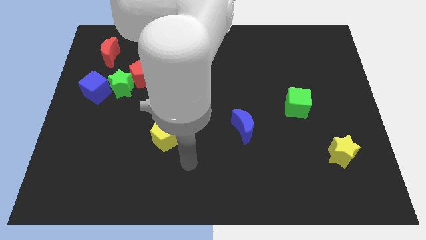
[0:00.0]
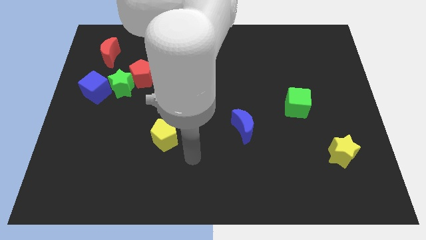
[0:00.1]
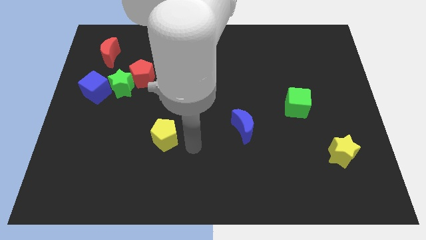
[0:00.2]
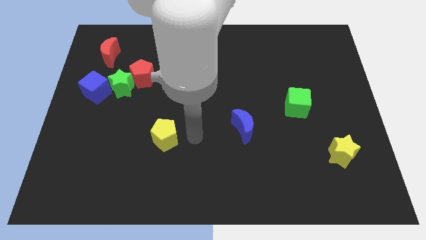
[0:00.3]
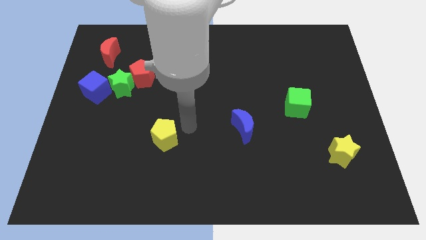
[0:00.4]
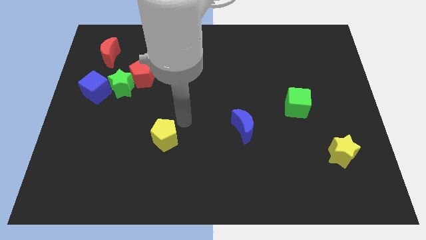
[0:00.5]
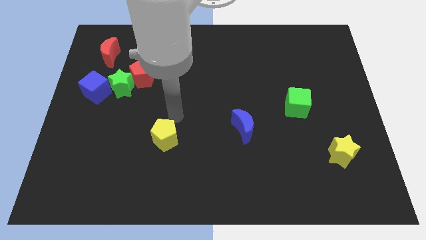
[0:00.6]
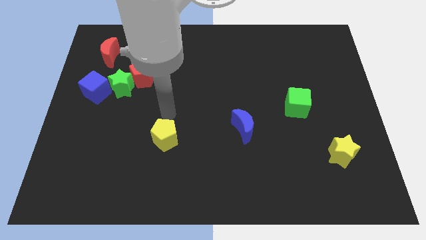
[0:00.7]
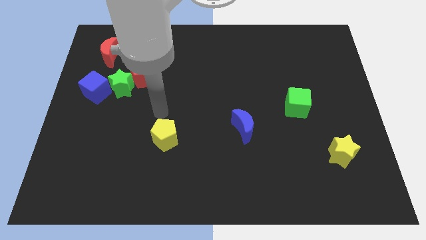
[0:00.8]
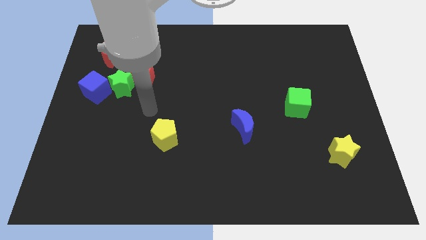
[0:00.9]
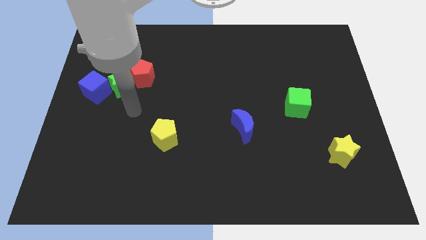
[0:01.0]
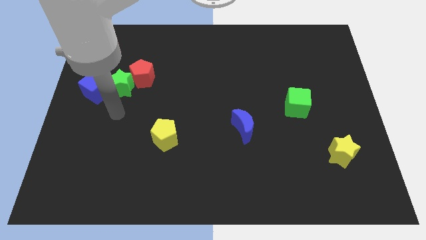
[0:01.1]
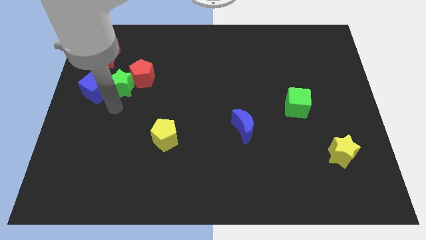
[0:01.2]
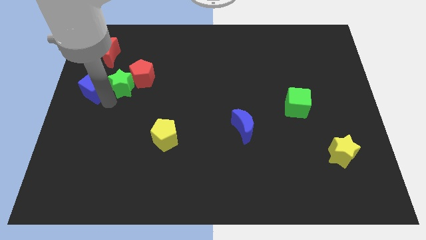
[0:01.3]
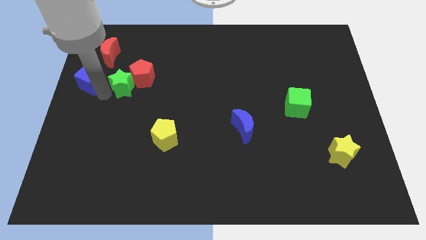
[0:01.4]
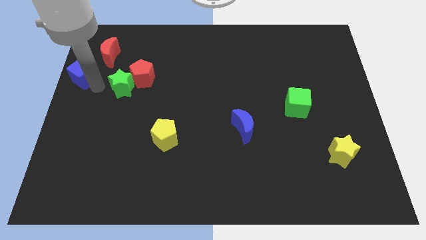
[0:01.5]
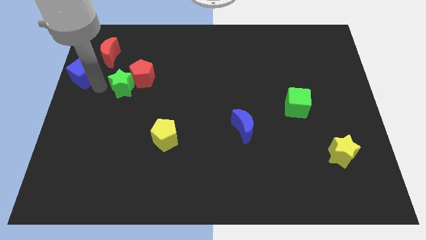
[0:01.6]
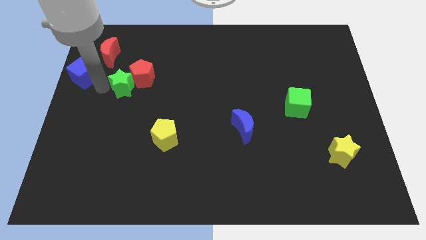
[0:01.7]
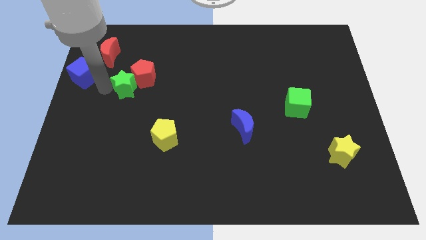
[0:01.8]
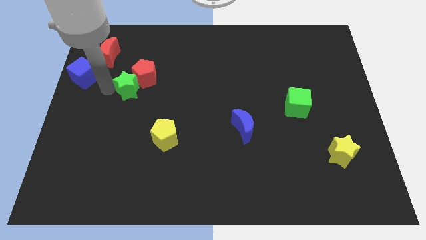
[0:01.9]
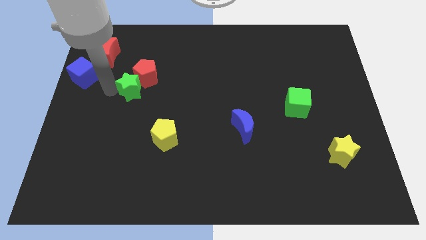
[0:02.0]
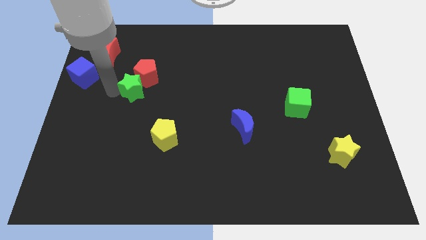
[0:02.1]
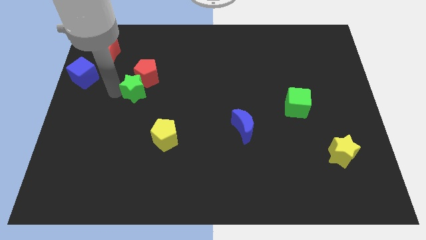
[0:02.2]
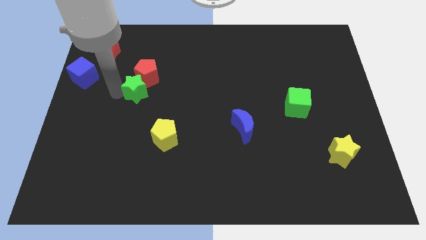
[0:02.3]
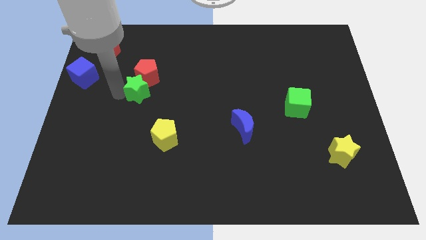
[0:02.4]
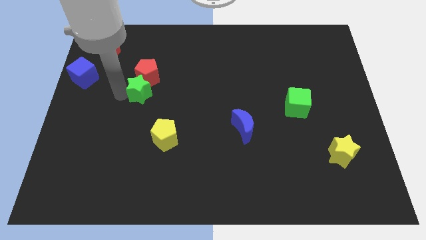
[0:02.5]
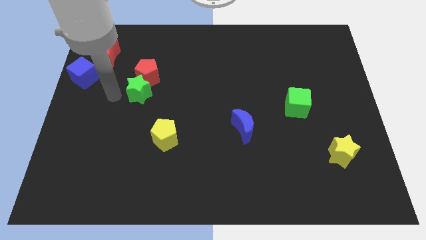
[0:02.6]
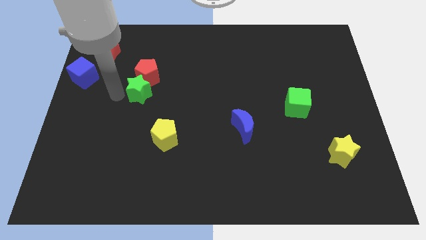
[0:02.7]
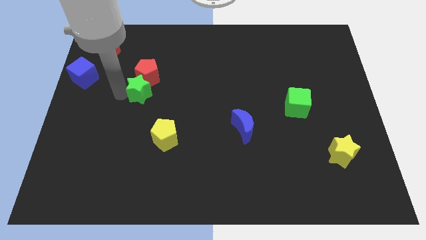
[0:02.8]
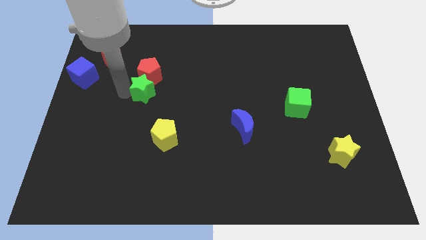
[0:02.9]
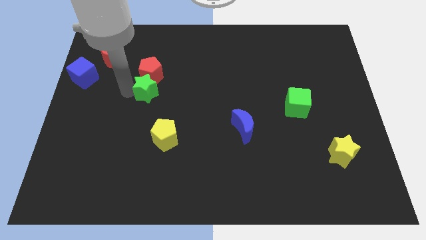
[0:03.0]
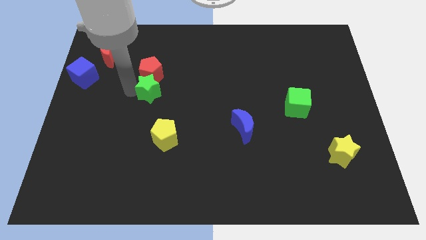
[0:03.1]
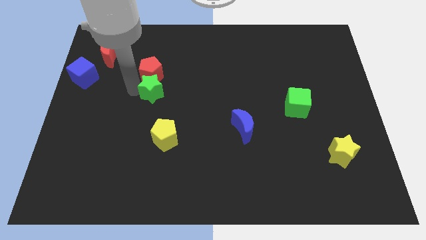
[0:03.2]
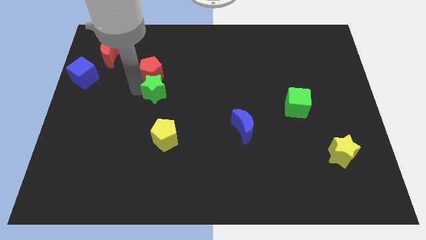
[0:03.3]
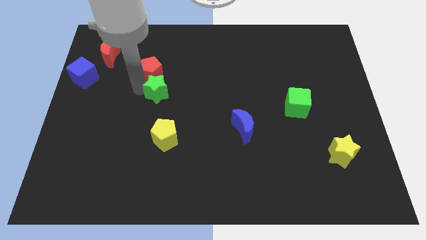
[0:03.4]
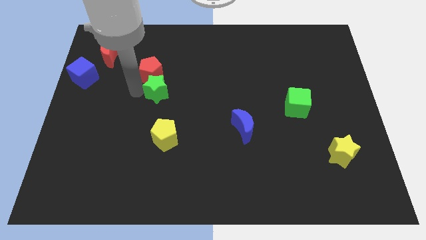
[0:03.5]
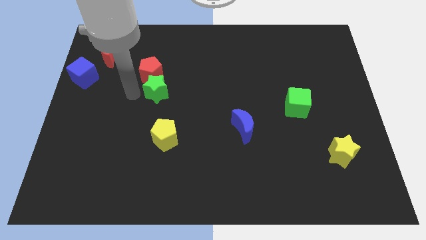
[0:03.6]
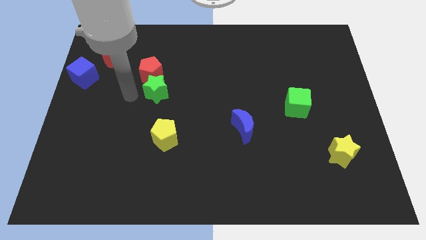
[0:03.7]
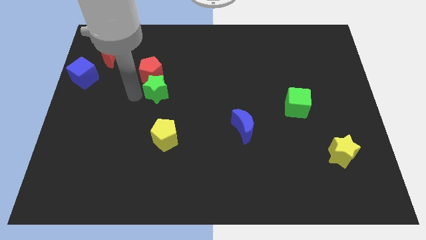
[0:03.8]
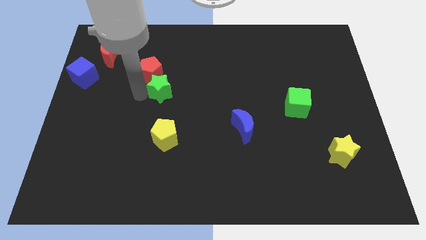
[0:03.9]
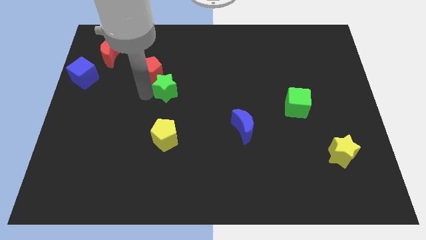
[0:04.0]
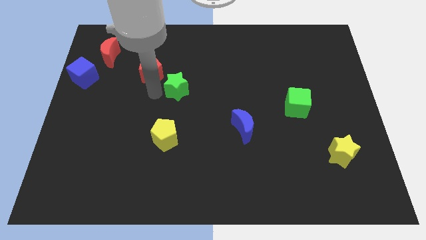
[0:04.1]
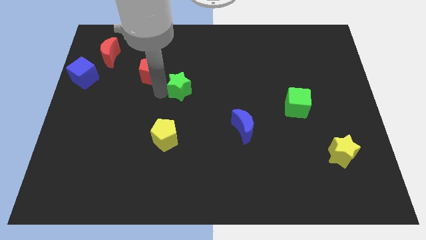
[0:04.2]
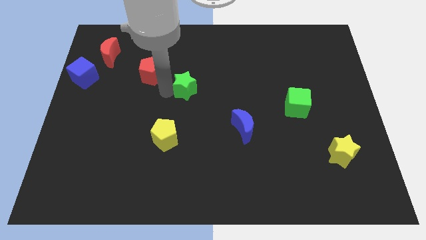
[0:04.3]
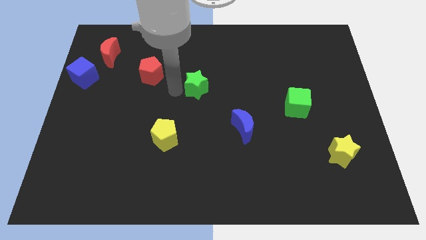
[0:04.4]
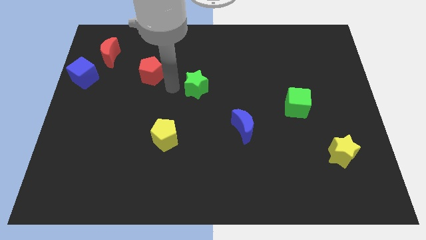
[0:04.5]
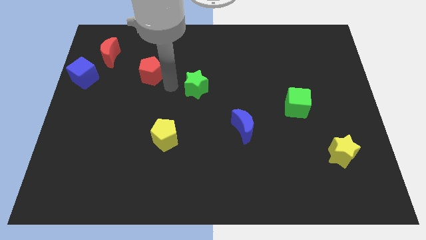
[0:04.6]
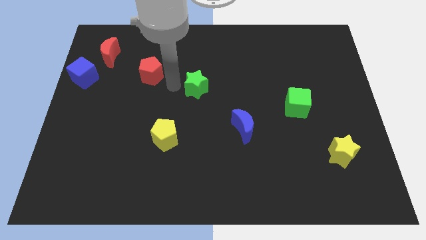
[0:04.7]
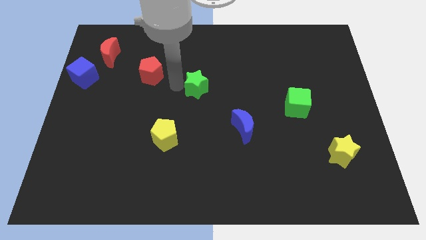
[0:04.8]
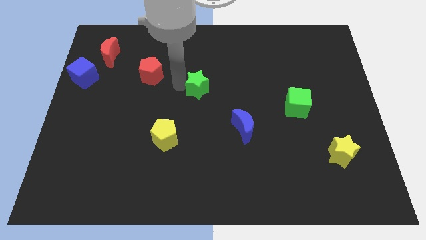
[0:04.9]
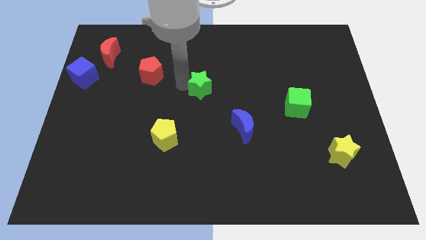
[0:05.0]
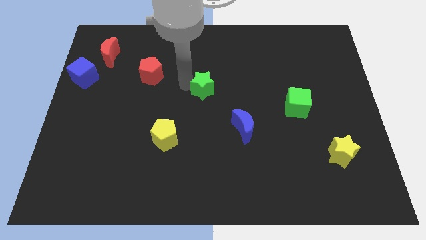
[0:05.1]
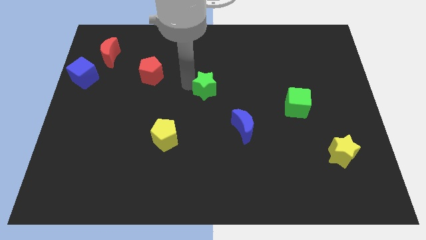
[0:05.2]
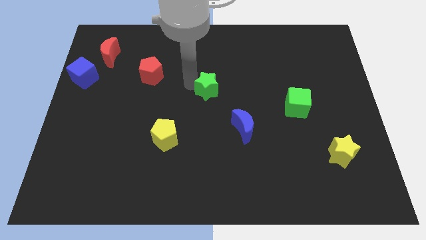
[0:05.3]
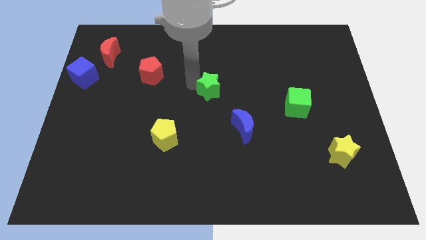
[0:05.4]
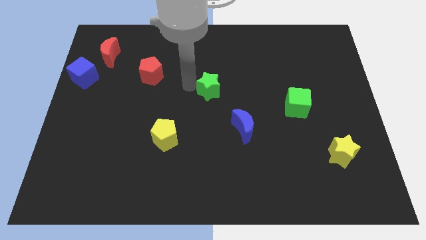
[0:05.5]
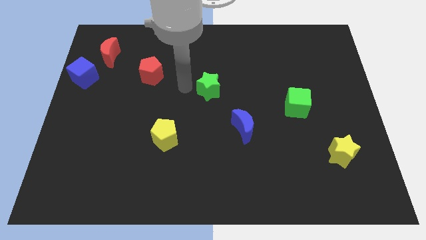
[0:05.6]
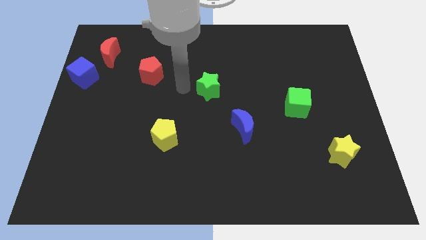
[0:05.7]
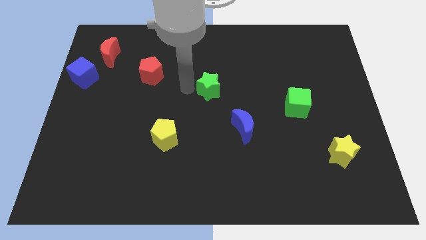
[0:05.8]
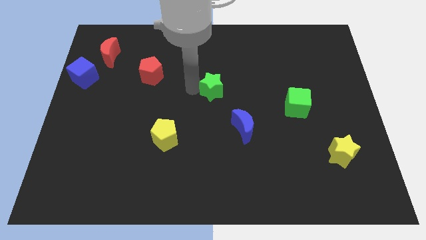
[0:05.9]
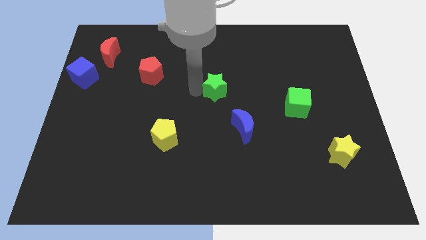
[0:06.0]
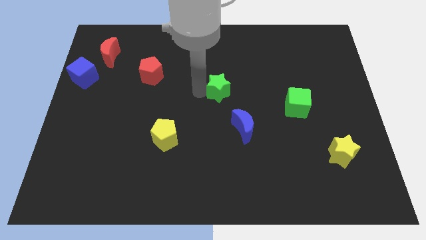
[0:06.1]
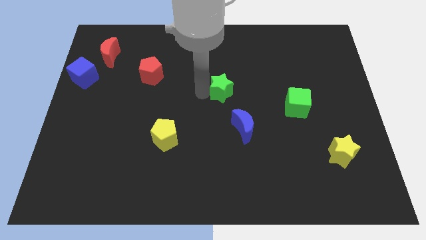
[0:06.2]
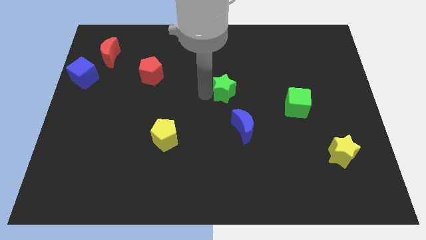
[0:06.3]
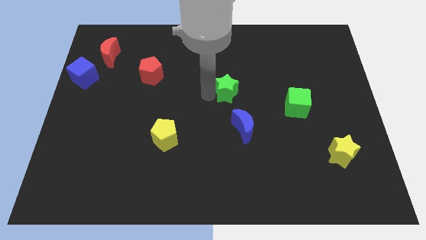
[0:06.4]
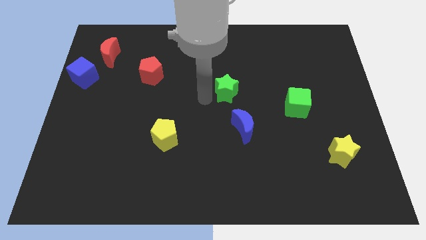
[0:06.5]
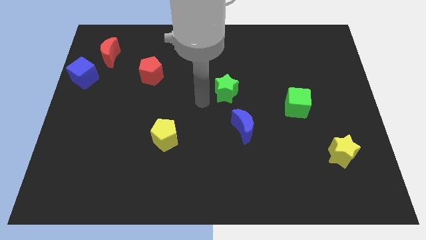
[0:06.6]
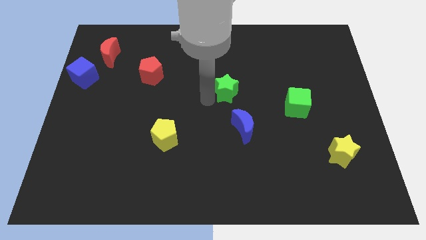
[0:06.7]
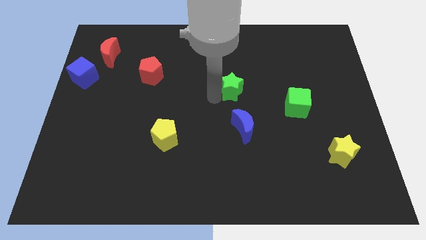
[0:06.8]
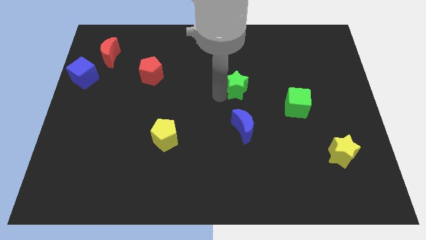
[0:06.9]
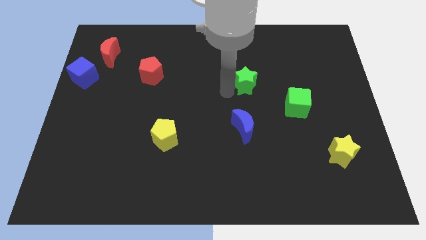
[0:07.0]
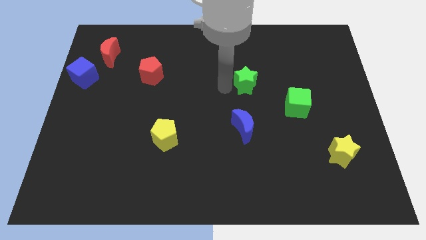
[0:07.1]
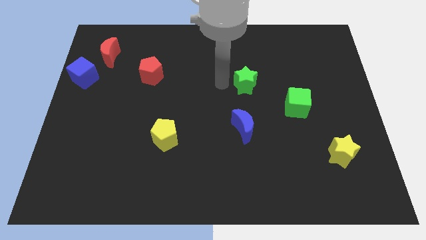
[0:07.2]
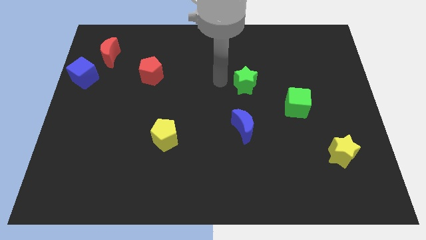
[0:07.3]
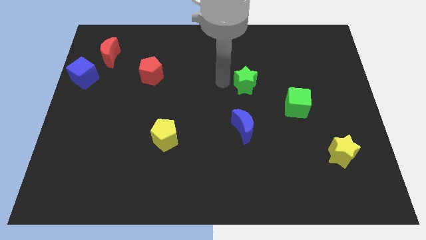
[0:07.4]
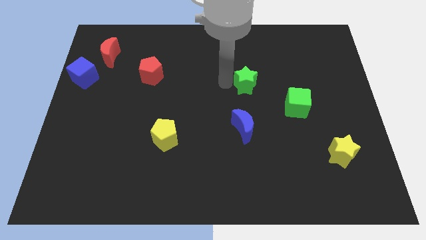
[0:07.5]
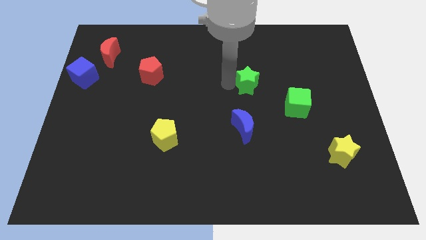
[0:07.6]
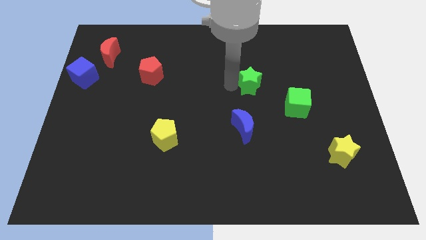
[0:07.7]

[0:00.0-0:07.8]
move the green star diagonally up and to the left of the green cube

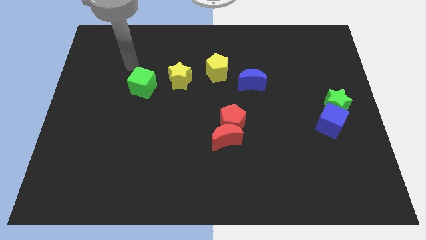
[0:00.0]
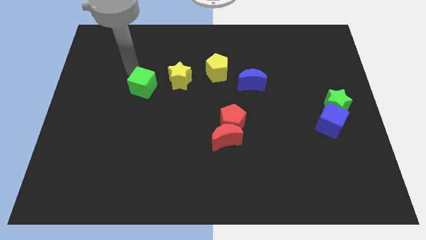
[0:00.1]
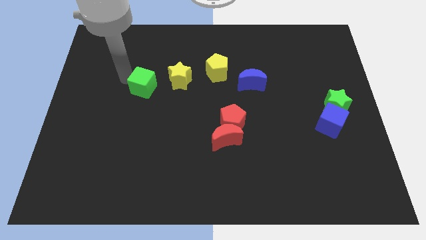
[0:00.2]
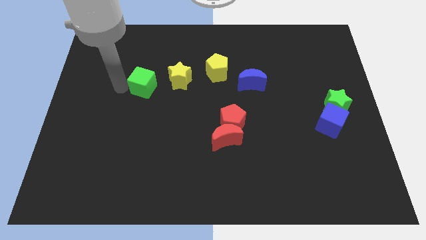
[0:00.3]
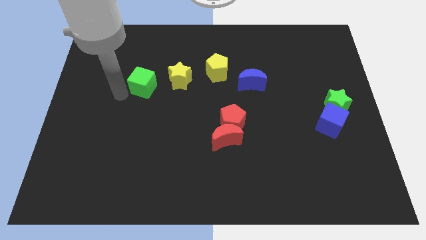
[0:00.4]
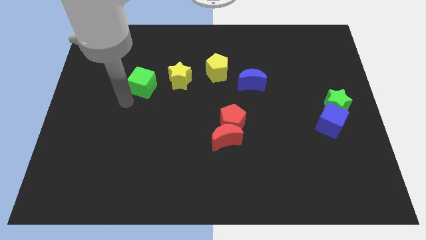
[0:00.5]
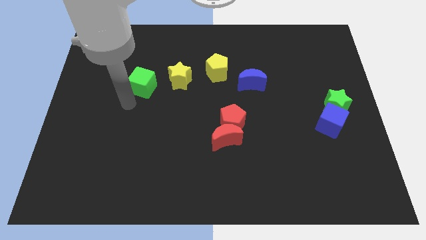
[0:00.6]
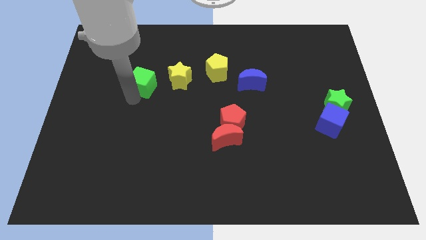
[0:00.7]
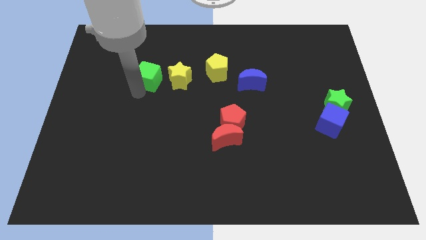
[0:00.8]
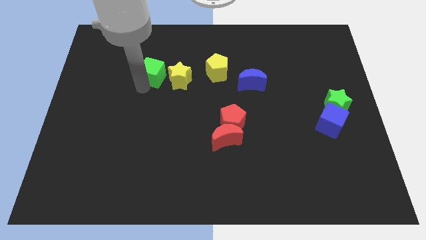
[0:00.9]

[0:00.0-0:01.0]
push the green cube diagonally up and to the left of the yellow star
